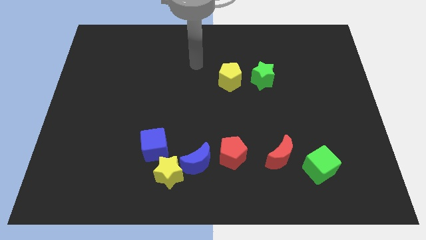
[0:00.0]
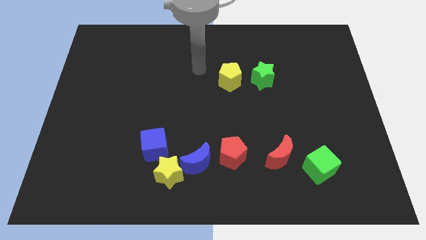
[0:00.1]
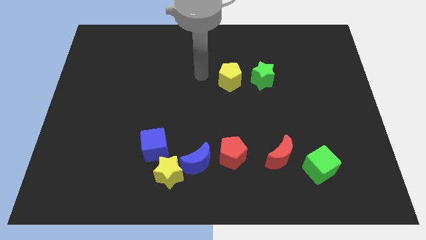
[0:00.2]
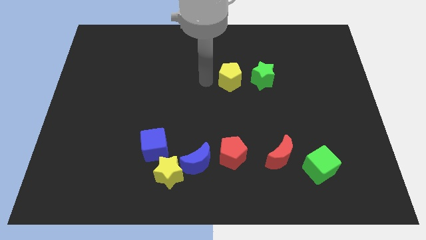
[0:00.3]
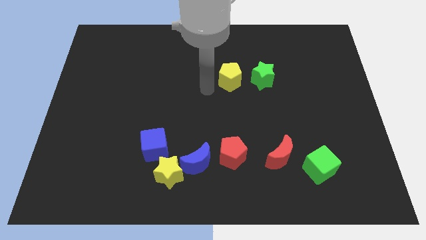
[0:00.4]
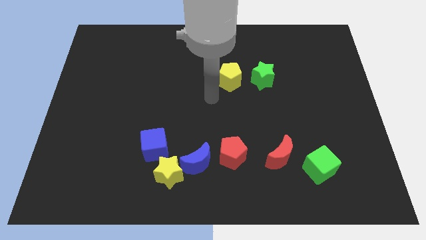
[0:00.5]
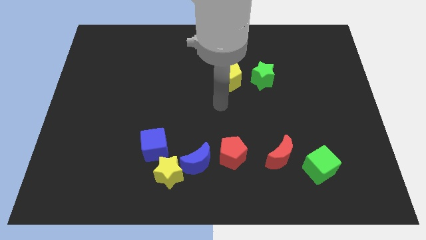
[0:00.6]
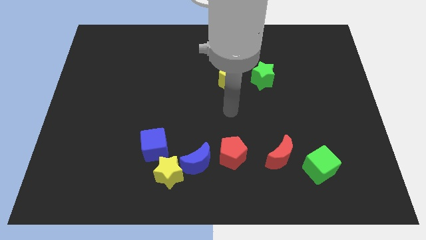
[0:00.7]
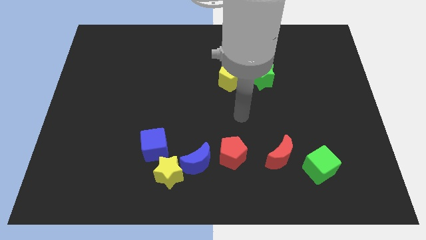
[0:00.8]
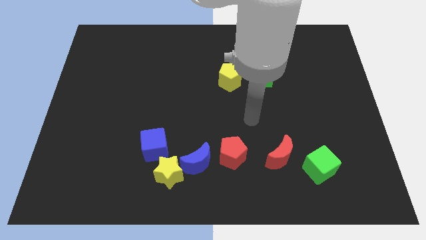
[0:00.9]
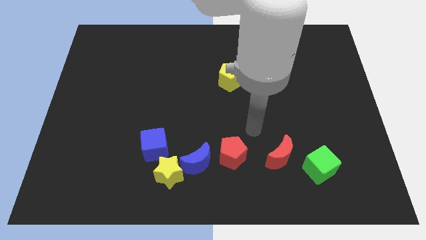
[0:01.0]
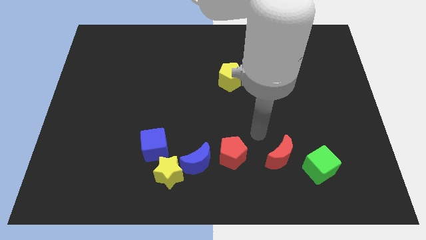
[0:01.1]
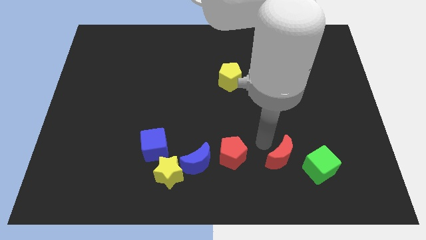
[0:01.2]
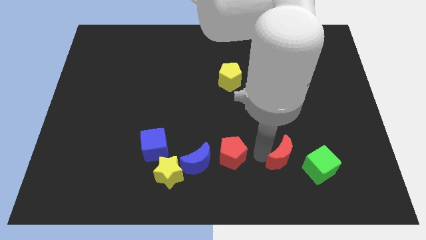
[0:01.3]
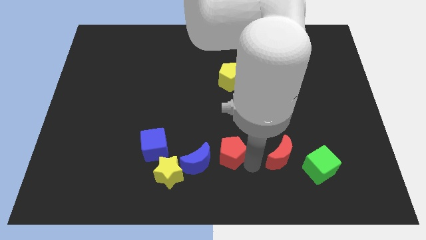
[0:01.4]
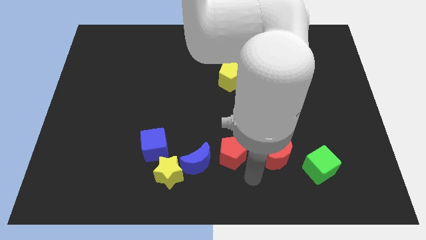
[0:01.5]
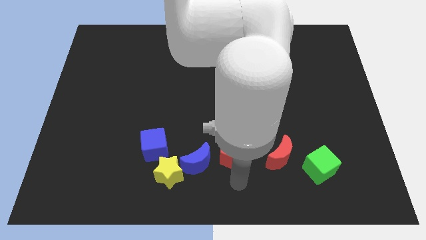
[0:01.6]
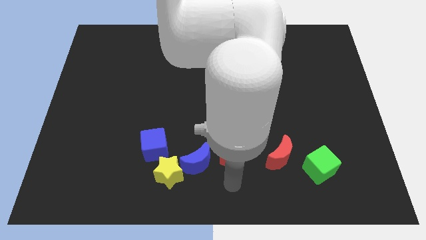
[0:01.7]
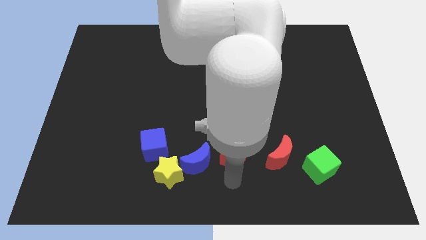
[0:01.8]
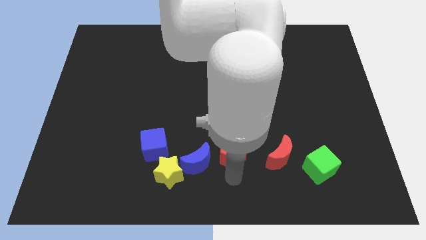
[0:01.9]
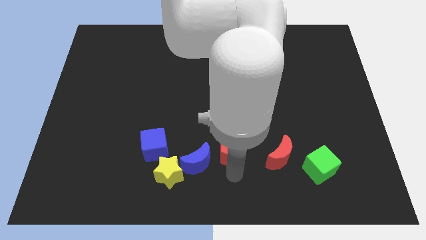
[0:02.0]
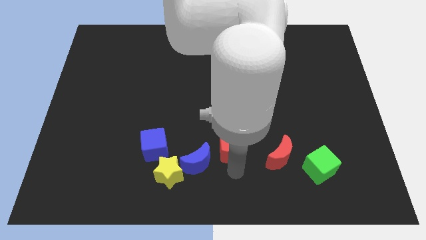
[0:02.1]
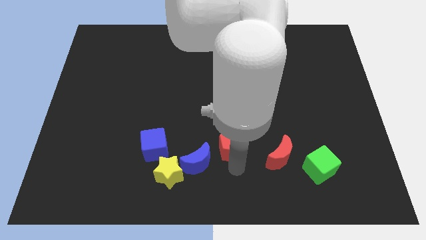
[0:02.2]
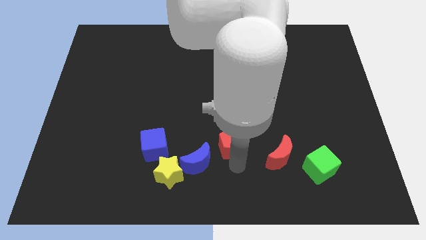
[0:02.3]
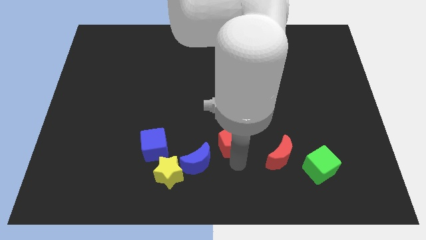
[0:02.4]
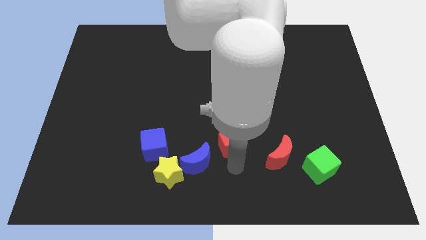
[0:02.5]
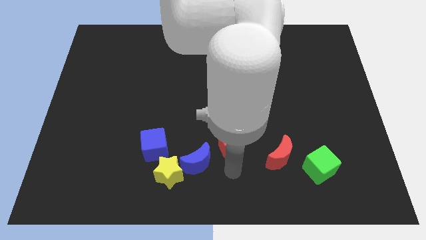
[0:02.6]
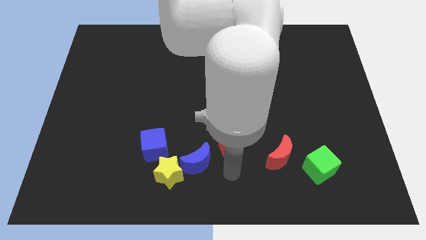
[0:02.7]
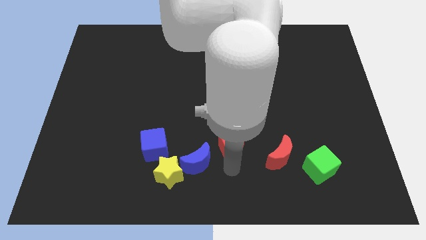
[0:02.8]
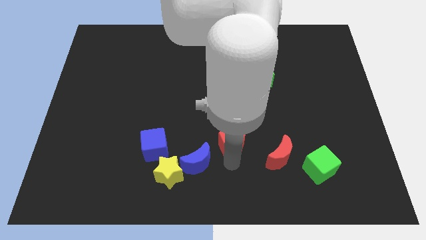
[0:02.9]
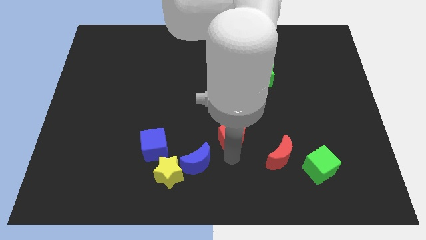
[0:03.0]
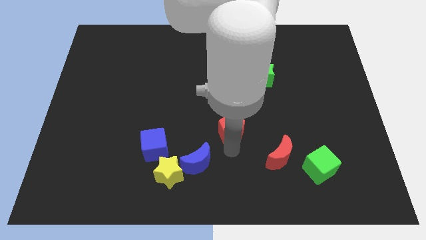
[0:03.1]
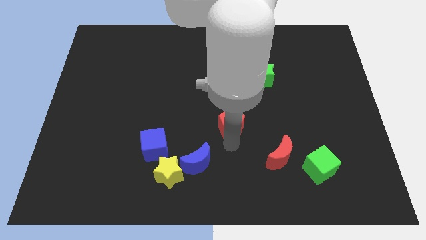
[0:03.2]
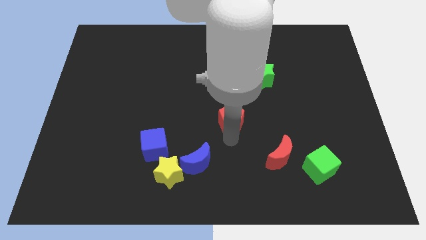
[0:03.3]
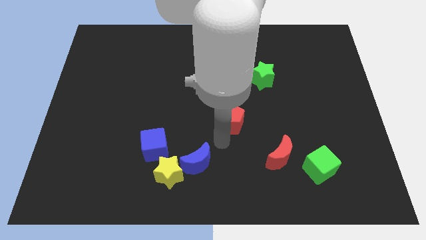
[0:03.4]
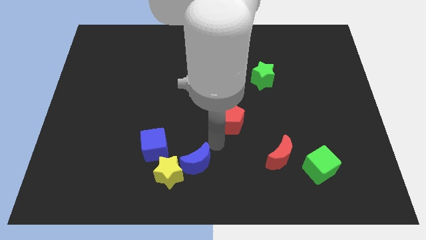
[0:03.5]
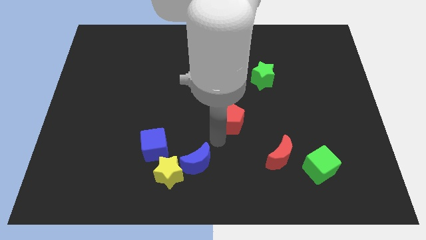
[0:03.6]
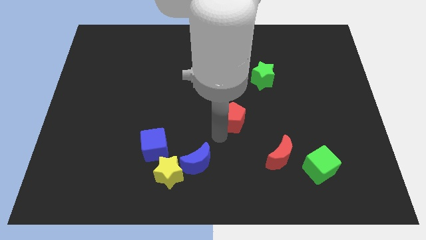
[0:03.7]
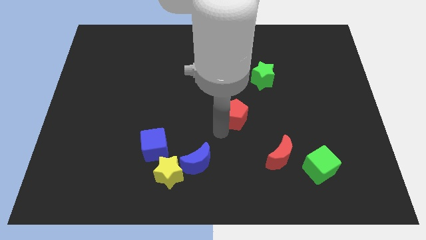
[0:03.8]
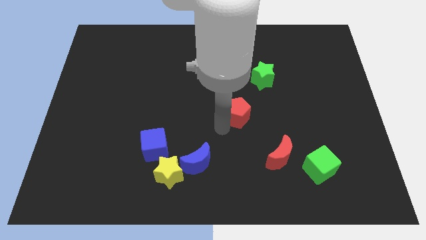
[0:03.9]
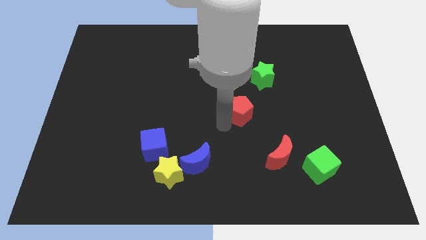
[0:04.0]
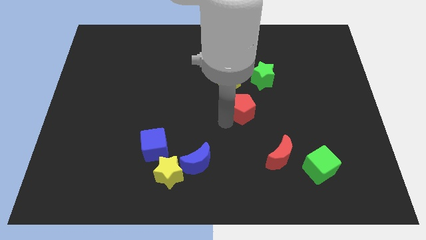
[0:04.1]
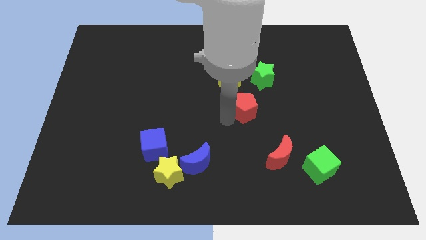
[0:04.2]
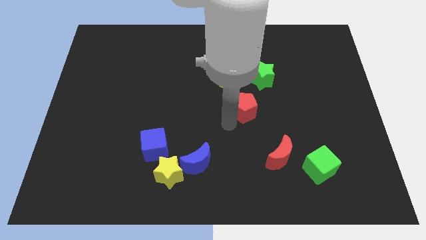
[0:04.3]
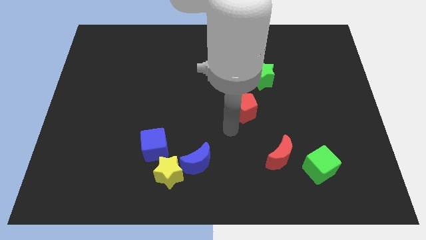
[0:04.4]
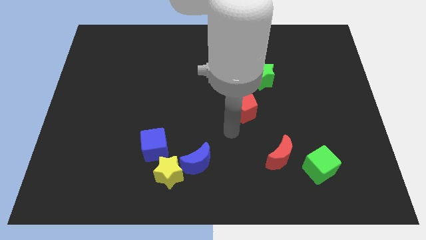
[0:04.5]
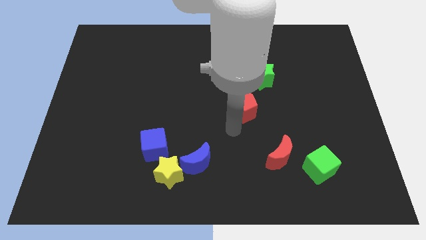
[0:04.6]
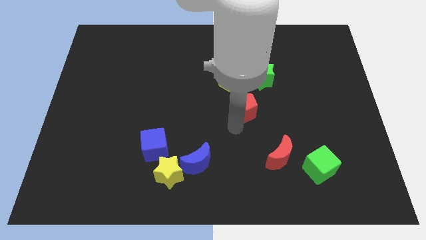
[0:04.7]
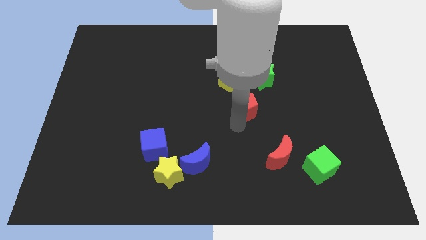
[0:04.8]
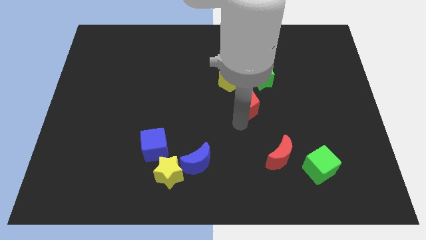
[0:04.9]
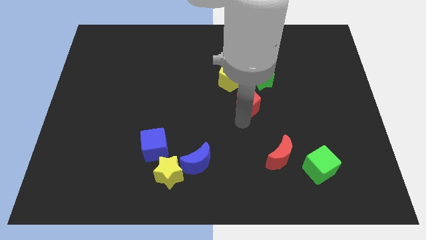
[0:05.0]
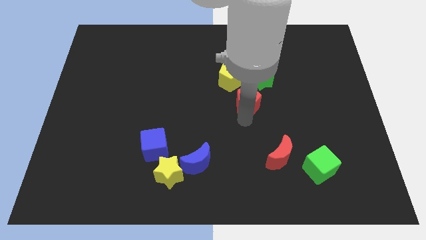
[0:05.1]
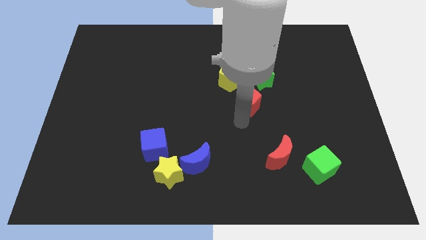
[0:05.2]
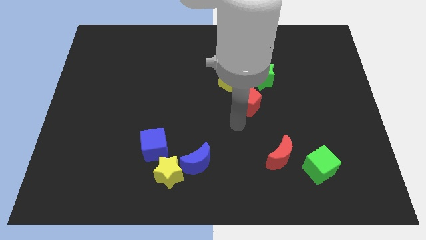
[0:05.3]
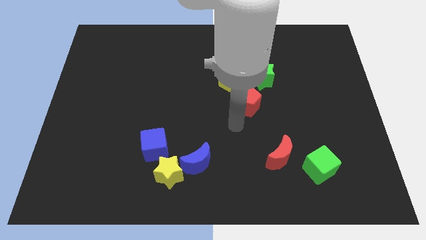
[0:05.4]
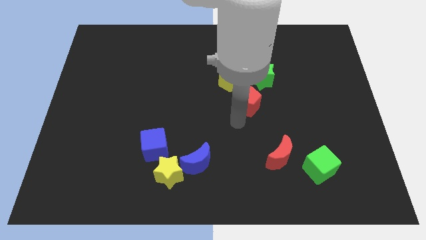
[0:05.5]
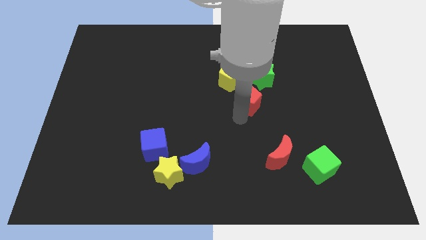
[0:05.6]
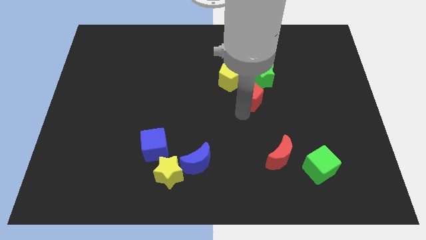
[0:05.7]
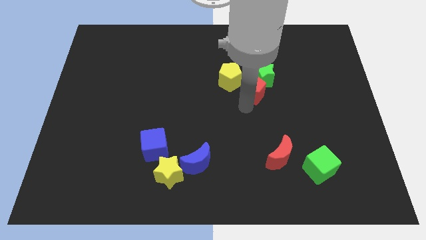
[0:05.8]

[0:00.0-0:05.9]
push the red pentagon to the green star

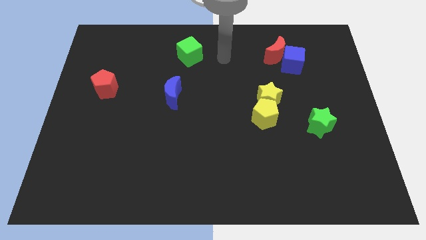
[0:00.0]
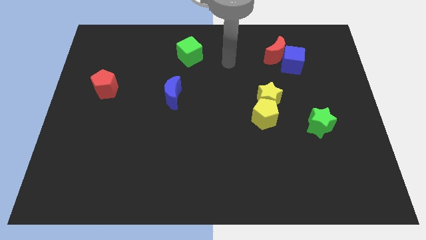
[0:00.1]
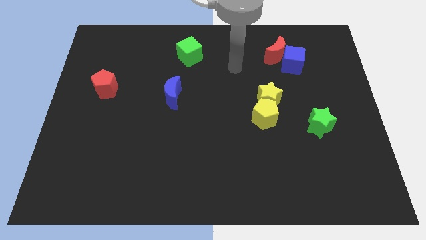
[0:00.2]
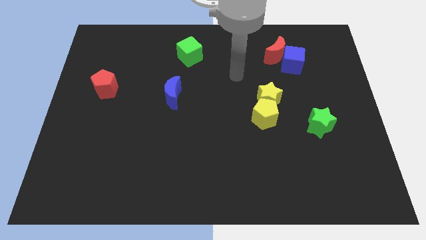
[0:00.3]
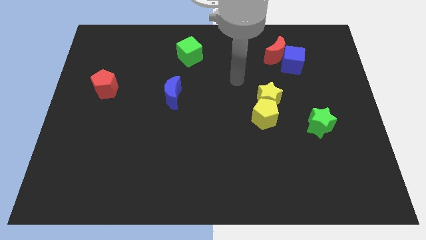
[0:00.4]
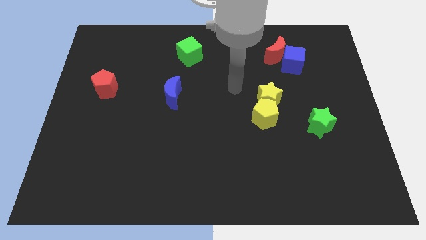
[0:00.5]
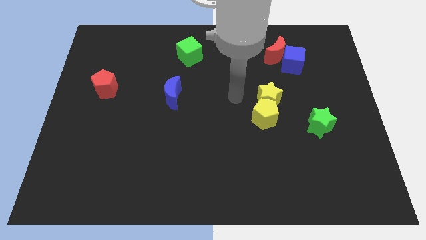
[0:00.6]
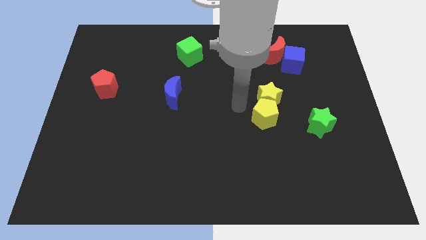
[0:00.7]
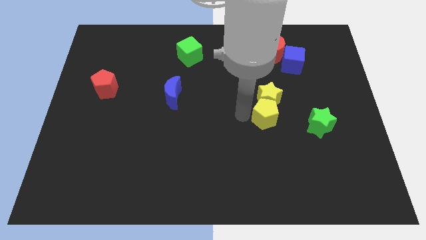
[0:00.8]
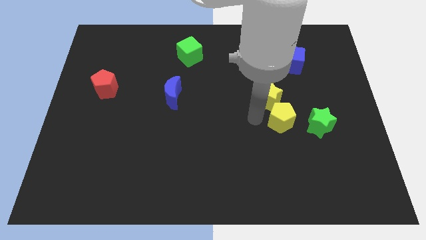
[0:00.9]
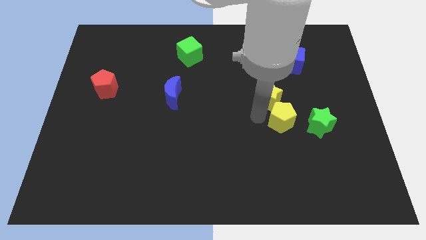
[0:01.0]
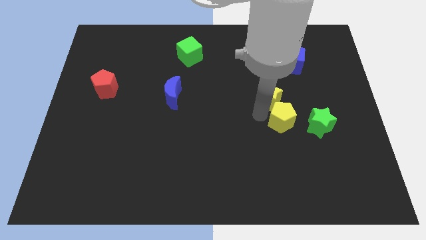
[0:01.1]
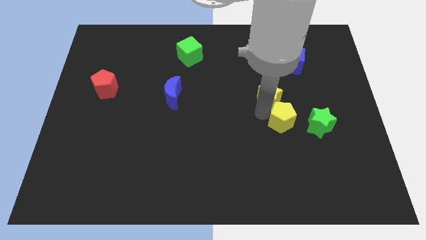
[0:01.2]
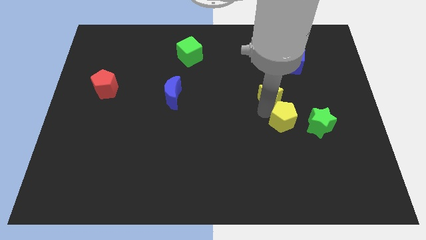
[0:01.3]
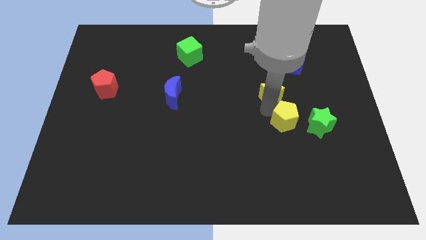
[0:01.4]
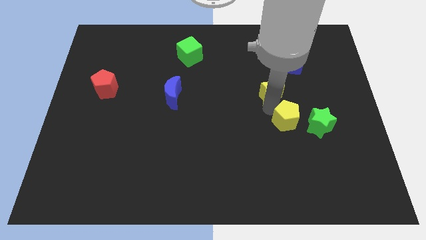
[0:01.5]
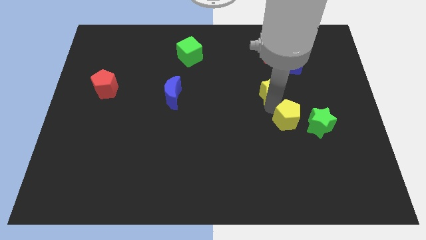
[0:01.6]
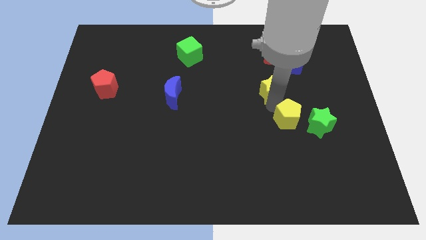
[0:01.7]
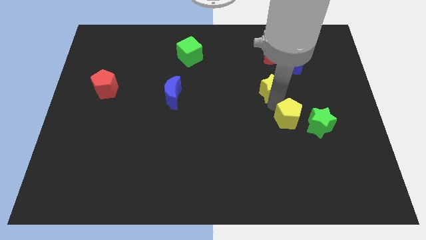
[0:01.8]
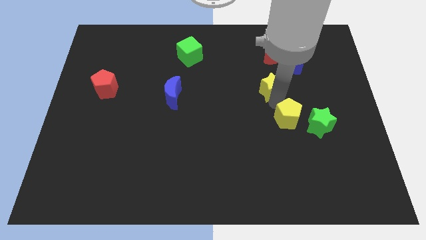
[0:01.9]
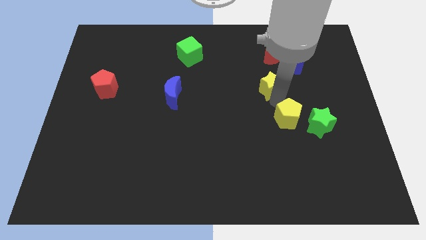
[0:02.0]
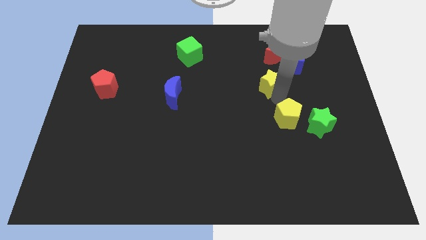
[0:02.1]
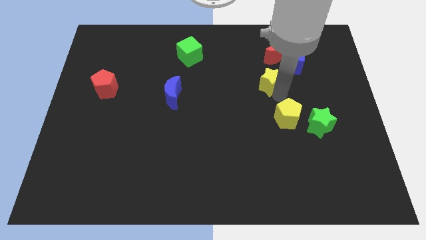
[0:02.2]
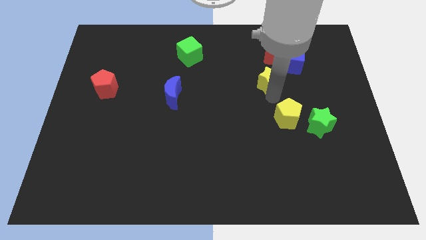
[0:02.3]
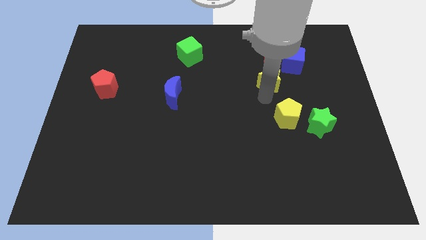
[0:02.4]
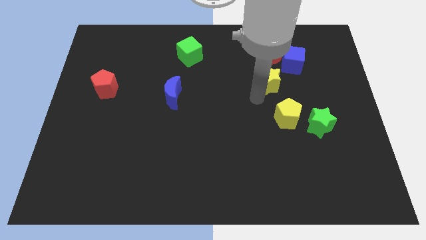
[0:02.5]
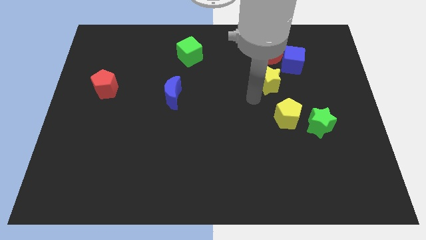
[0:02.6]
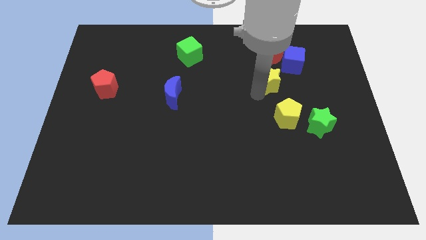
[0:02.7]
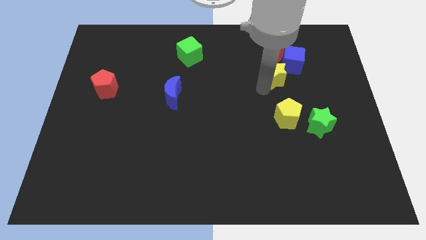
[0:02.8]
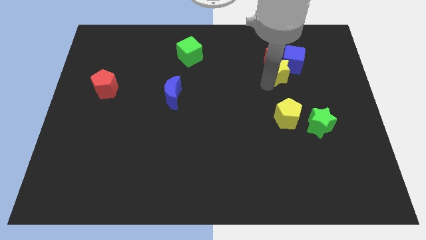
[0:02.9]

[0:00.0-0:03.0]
move the yellow star to the blue cube
